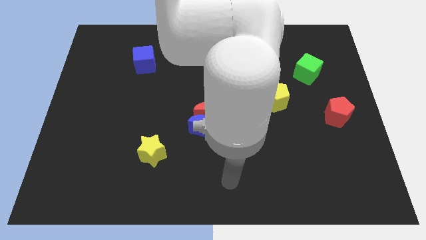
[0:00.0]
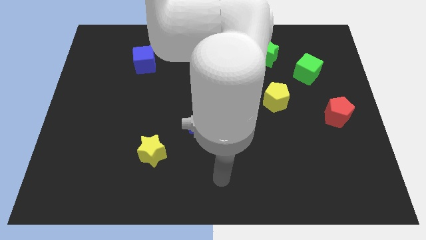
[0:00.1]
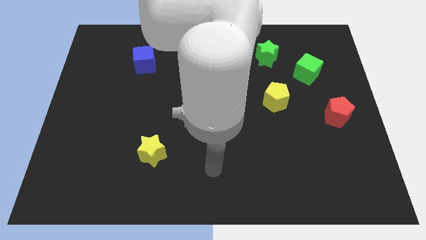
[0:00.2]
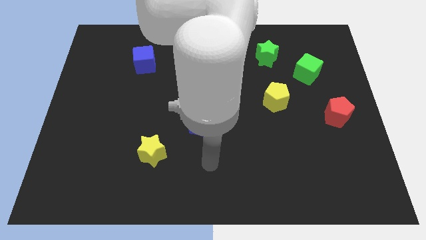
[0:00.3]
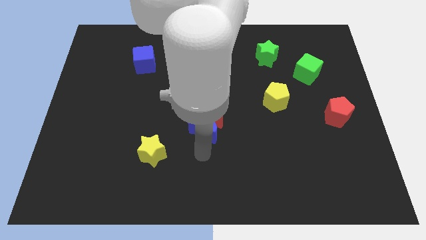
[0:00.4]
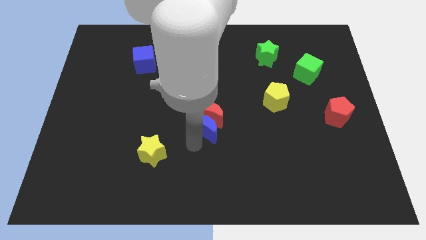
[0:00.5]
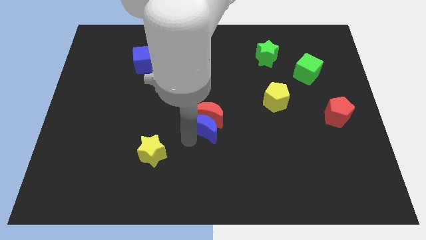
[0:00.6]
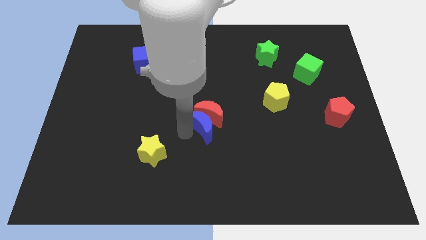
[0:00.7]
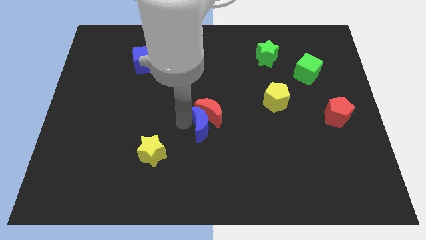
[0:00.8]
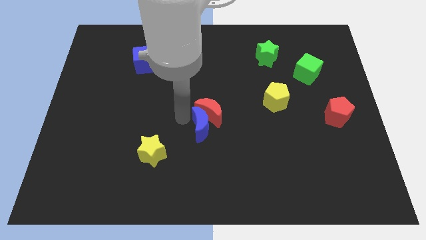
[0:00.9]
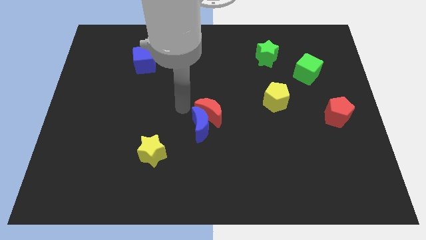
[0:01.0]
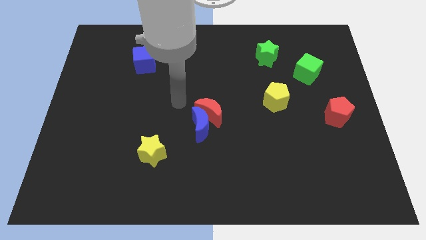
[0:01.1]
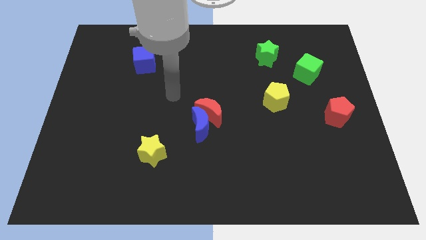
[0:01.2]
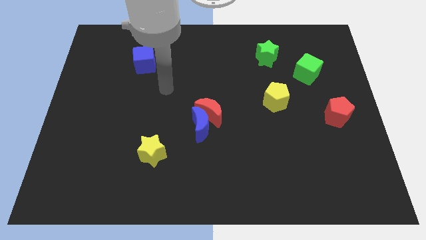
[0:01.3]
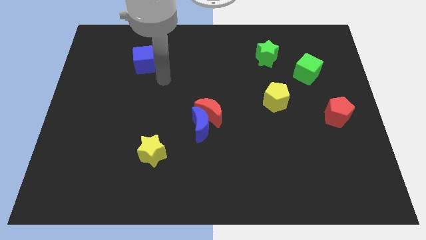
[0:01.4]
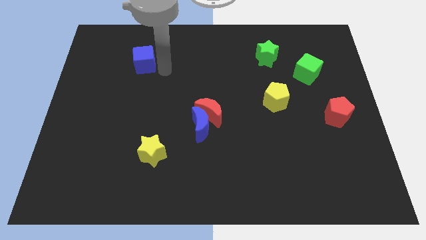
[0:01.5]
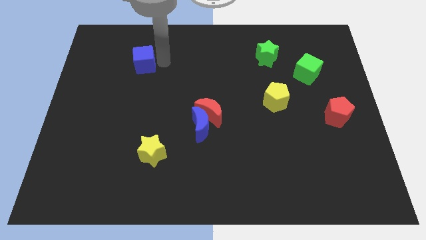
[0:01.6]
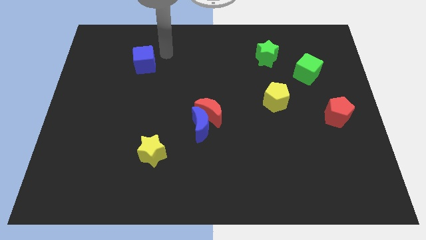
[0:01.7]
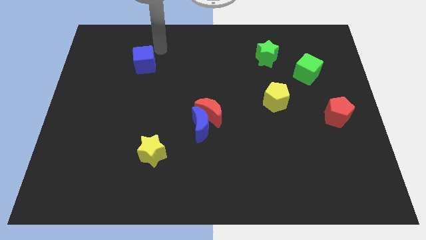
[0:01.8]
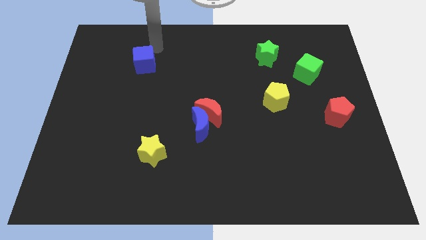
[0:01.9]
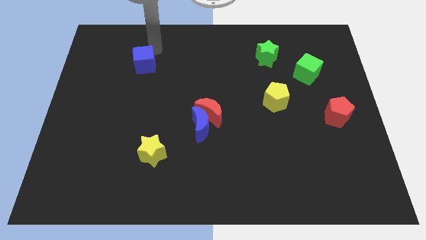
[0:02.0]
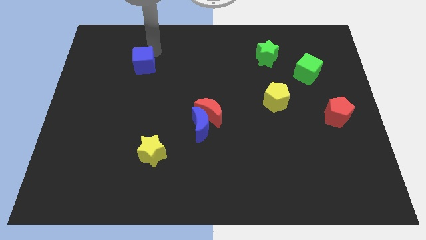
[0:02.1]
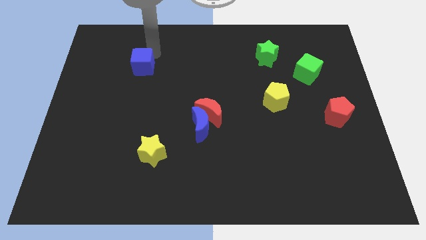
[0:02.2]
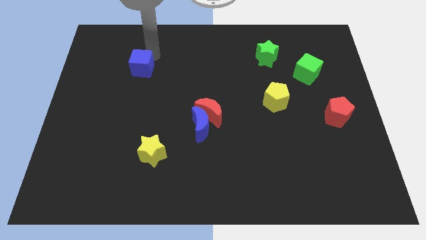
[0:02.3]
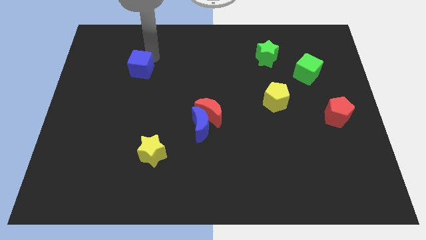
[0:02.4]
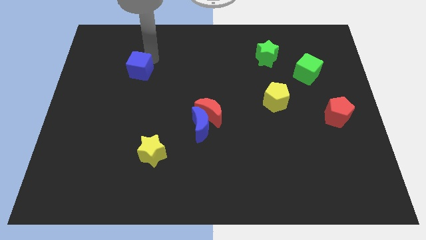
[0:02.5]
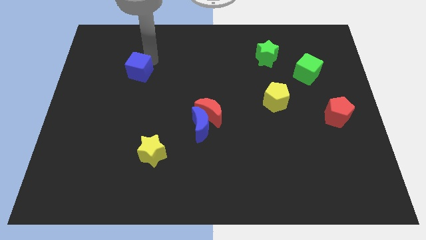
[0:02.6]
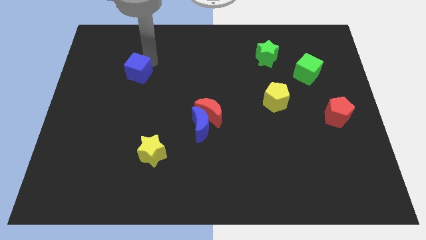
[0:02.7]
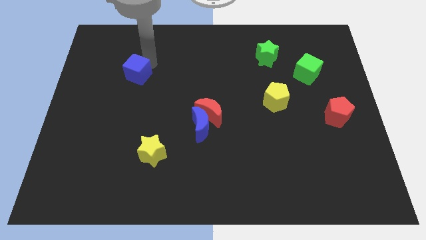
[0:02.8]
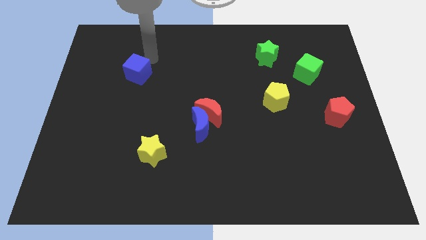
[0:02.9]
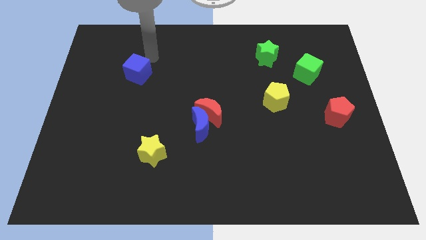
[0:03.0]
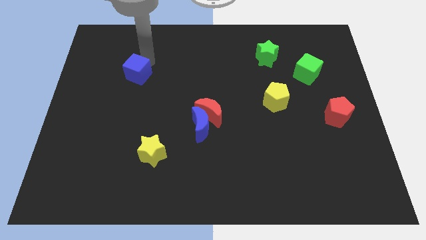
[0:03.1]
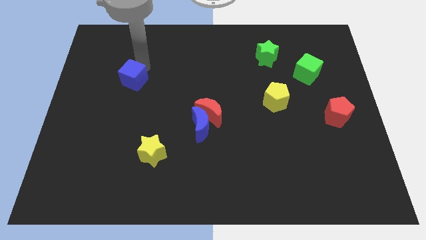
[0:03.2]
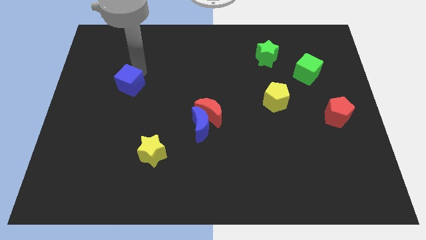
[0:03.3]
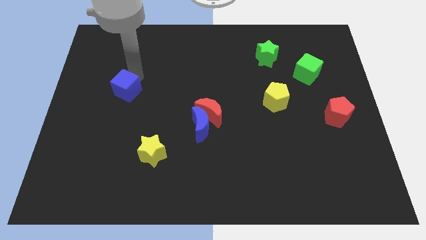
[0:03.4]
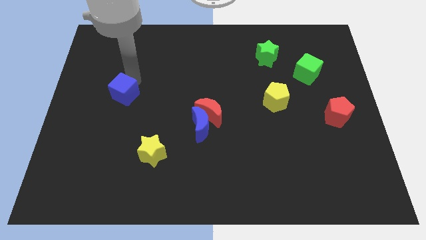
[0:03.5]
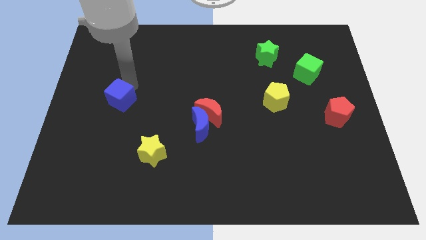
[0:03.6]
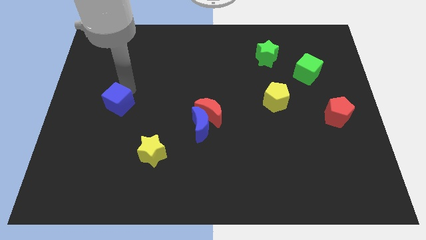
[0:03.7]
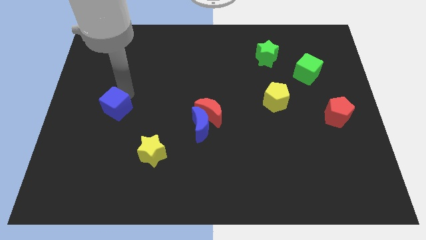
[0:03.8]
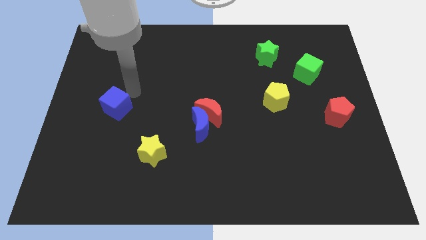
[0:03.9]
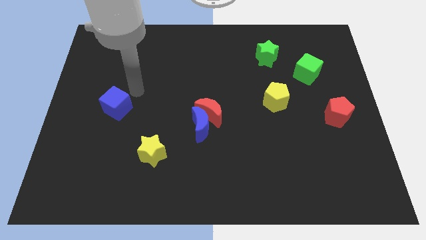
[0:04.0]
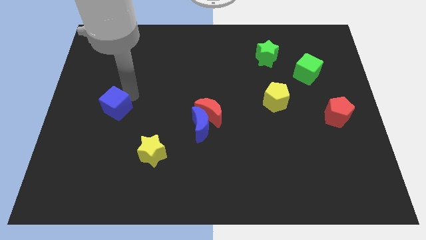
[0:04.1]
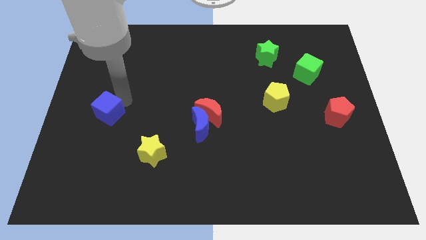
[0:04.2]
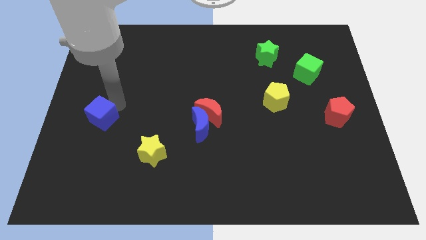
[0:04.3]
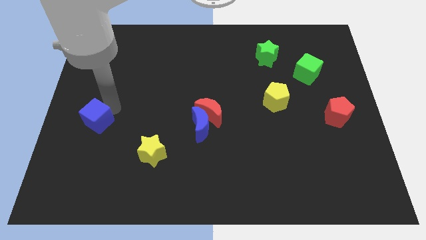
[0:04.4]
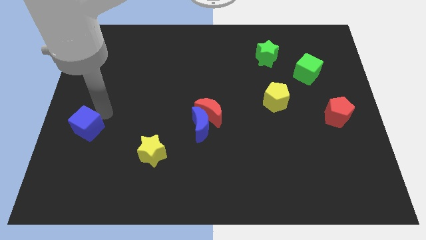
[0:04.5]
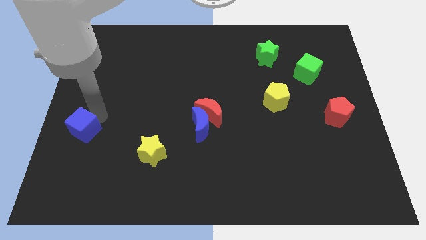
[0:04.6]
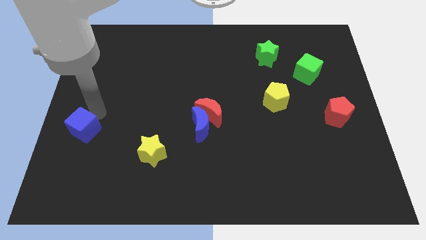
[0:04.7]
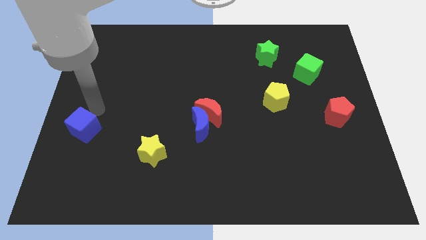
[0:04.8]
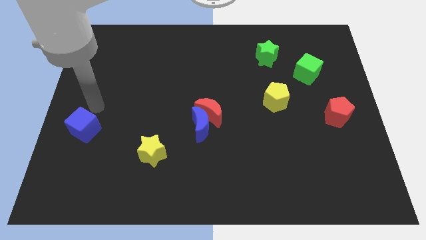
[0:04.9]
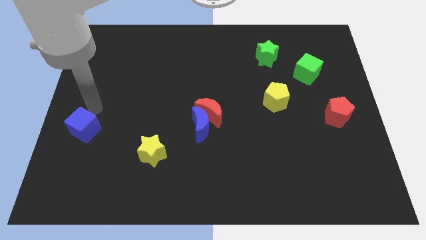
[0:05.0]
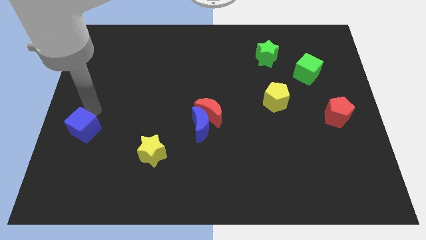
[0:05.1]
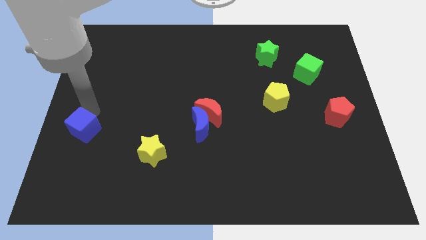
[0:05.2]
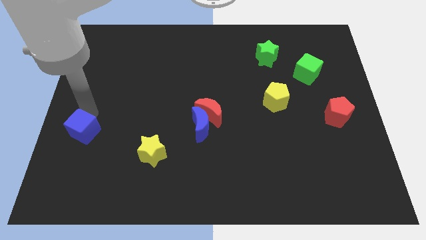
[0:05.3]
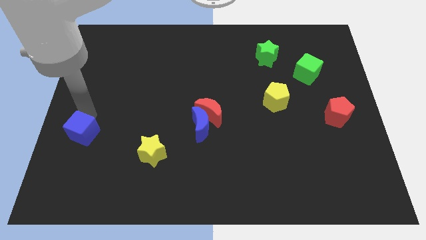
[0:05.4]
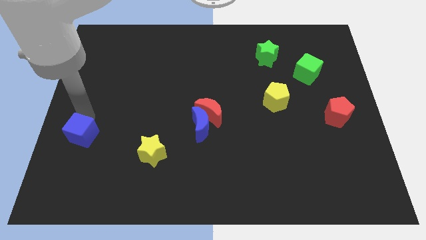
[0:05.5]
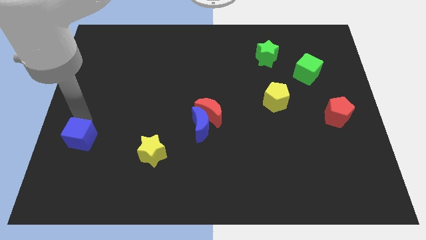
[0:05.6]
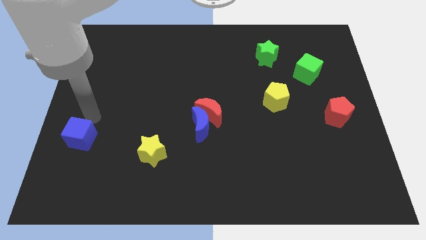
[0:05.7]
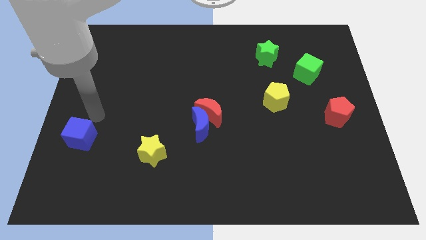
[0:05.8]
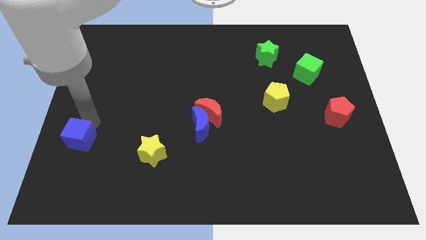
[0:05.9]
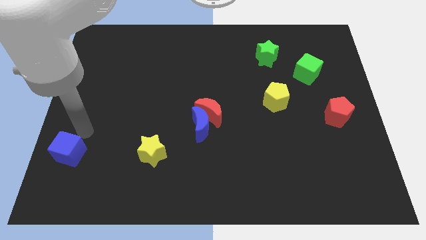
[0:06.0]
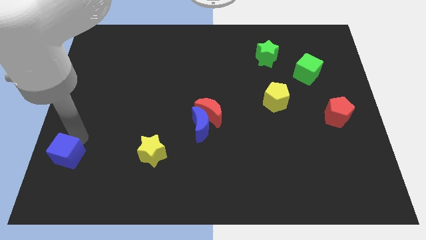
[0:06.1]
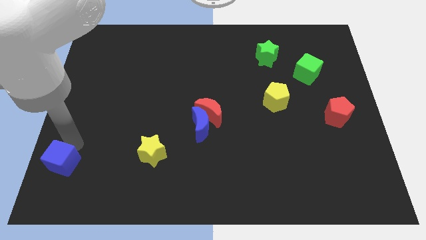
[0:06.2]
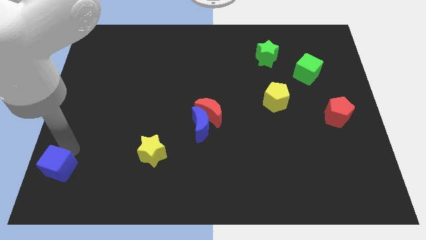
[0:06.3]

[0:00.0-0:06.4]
put the blue cube to the lower left corner
